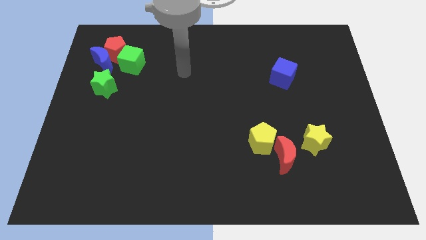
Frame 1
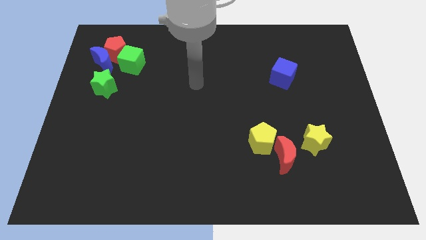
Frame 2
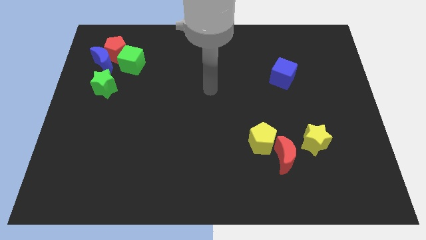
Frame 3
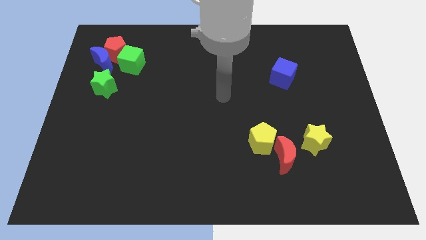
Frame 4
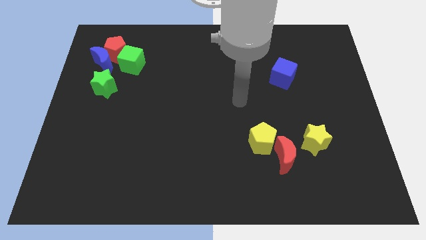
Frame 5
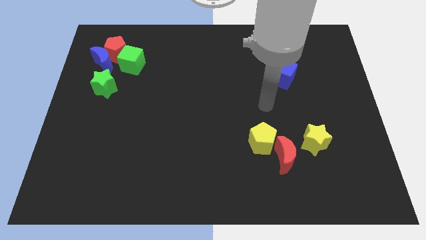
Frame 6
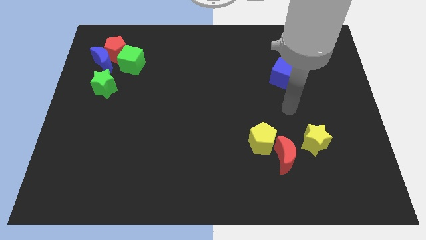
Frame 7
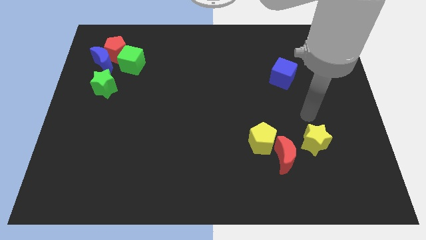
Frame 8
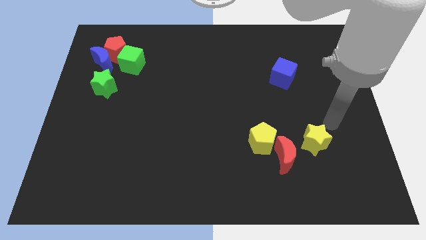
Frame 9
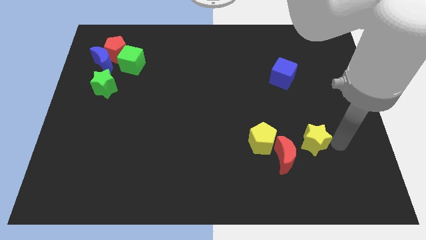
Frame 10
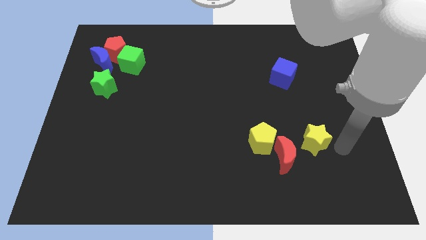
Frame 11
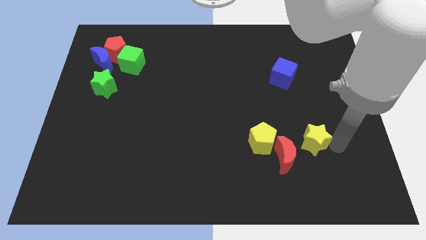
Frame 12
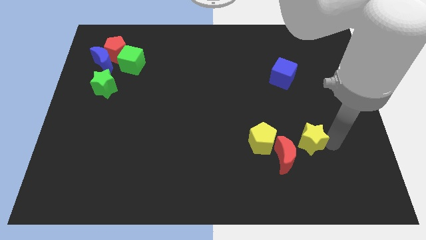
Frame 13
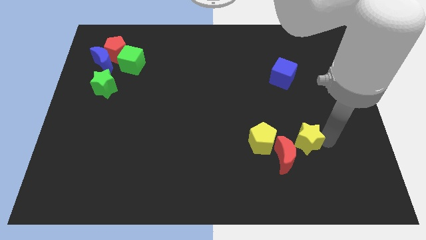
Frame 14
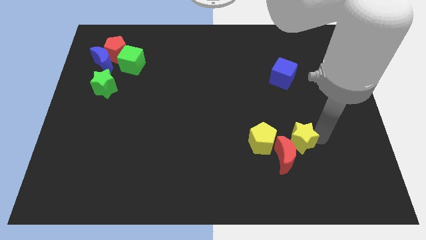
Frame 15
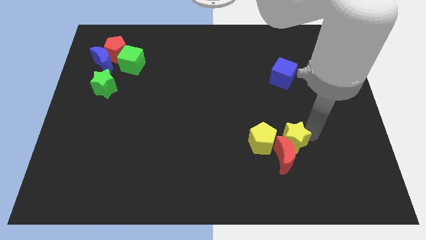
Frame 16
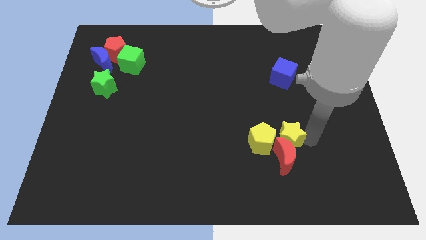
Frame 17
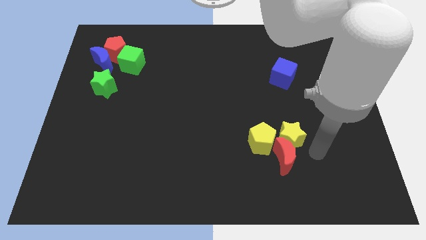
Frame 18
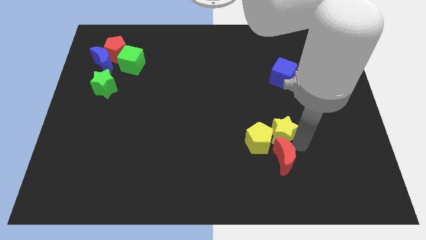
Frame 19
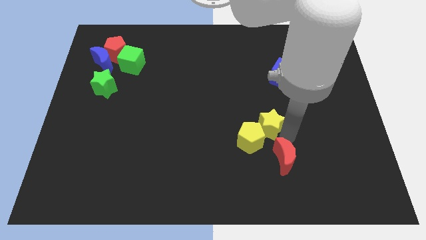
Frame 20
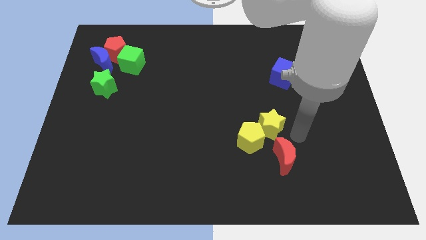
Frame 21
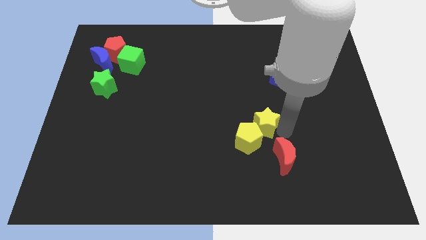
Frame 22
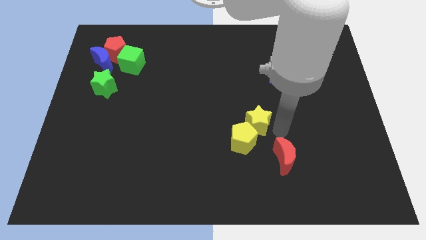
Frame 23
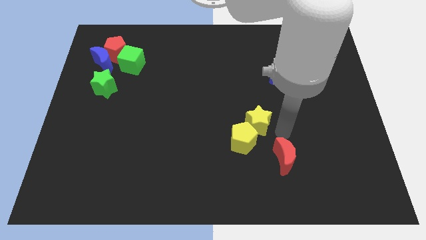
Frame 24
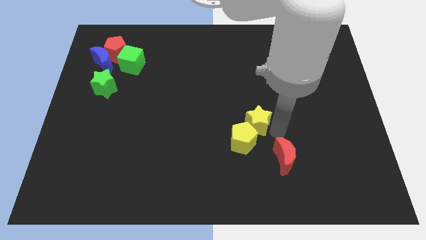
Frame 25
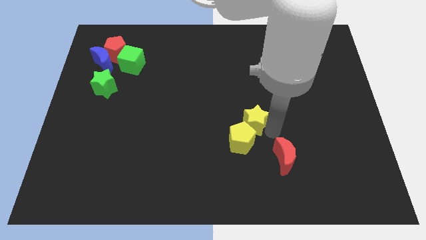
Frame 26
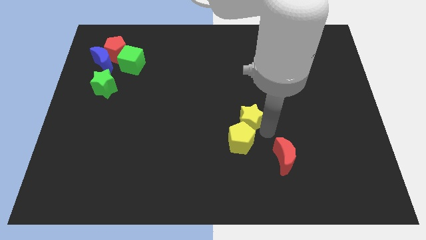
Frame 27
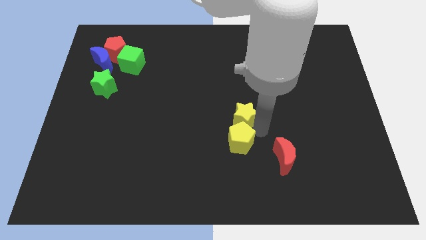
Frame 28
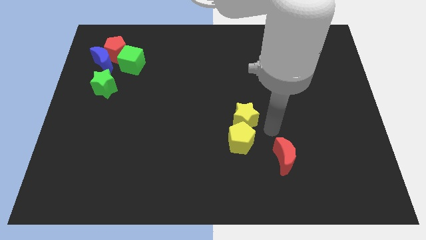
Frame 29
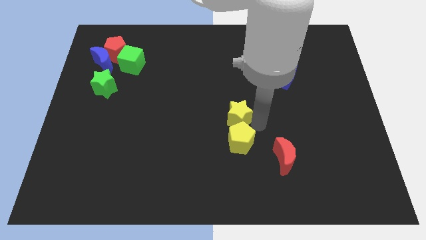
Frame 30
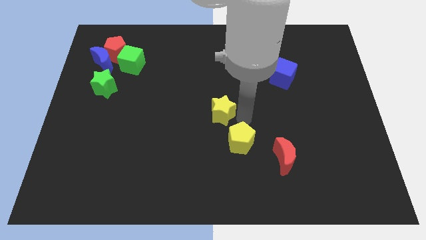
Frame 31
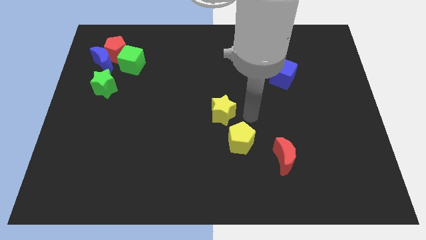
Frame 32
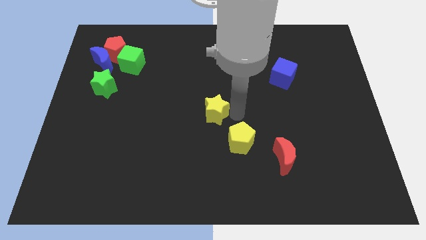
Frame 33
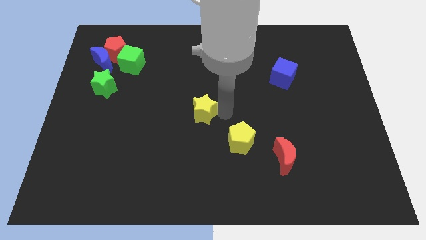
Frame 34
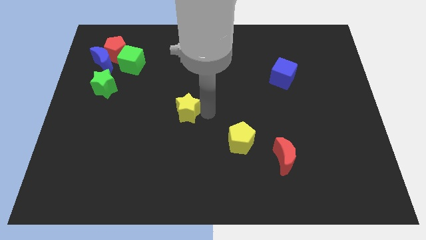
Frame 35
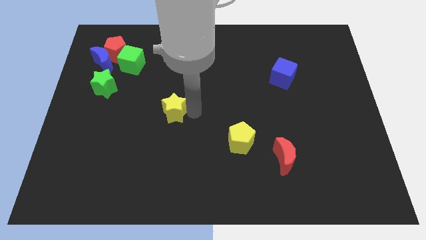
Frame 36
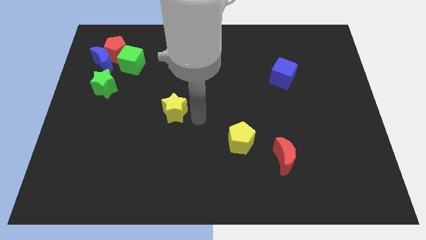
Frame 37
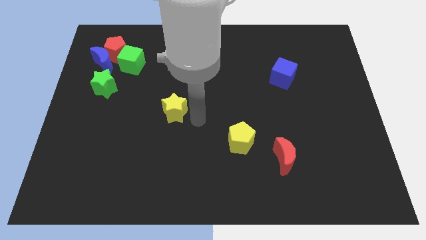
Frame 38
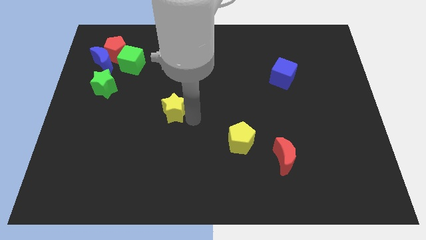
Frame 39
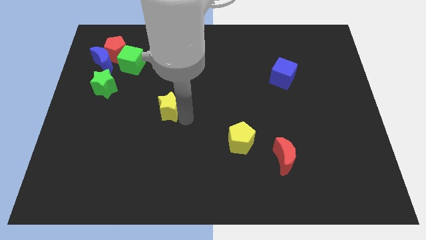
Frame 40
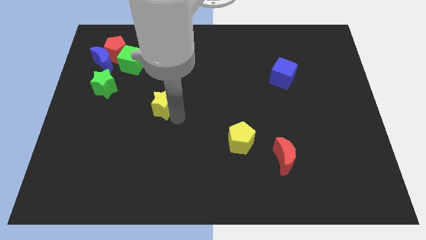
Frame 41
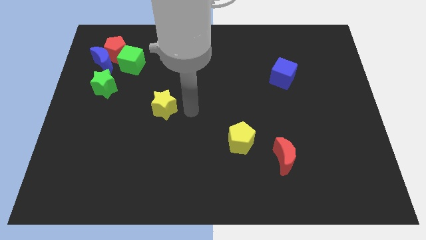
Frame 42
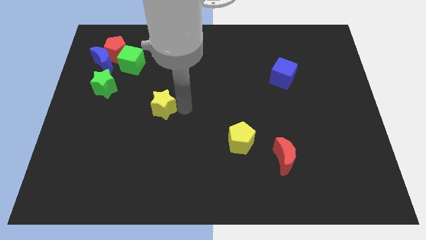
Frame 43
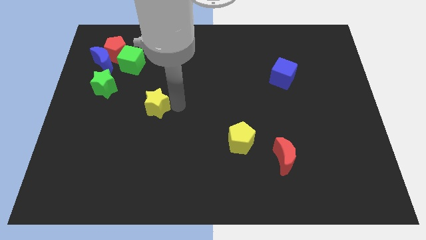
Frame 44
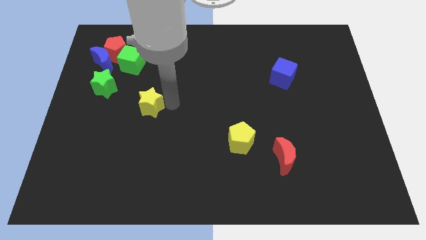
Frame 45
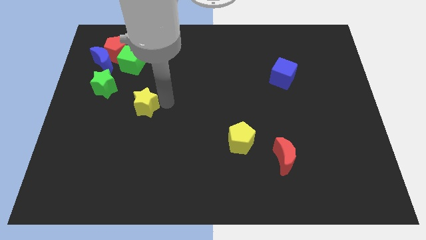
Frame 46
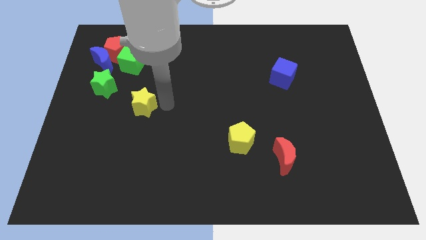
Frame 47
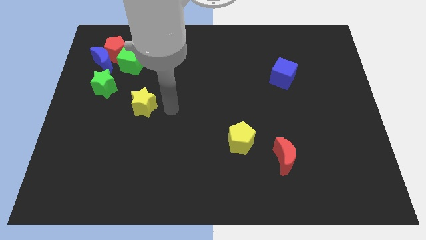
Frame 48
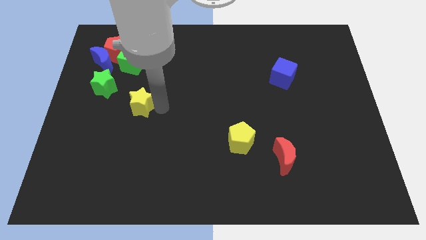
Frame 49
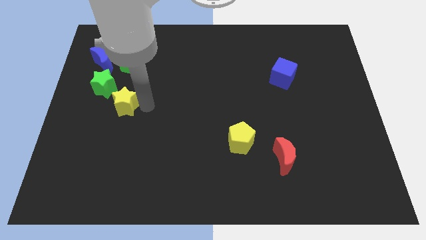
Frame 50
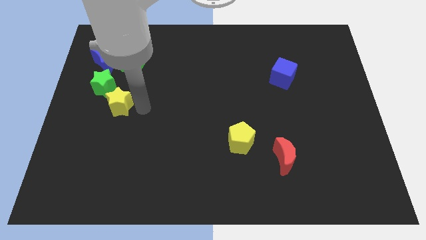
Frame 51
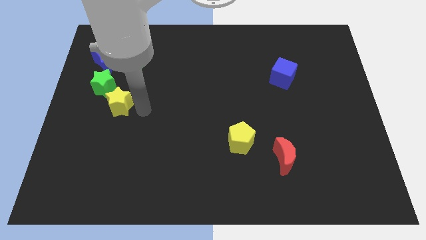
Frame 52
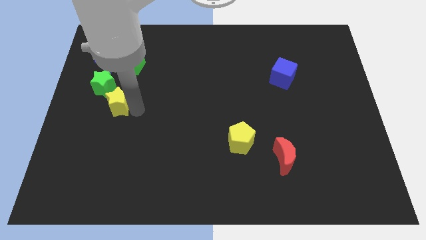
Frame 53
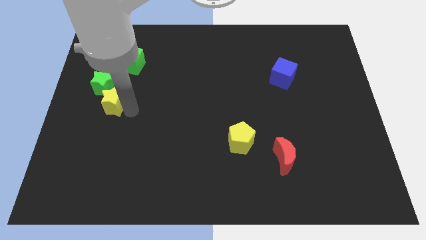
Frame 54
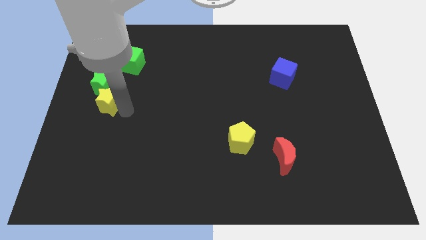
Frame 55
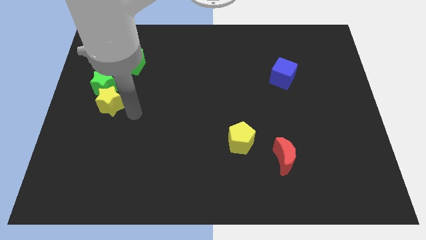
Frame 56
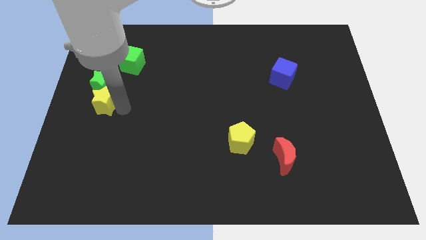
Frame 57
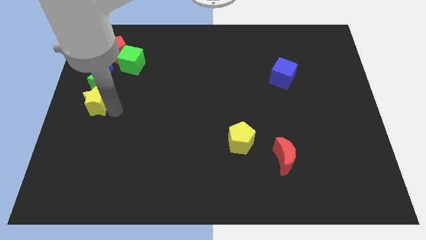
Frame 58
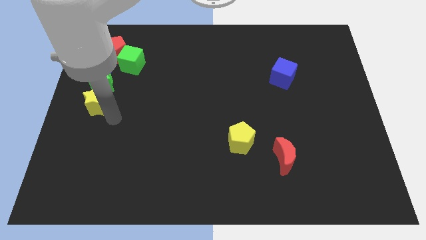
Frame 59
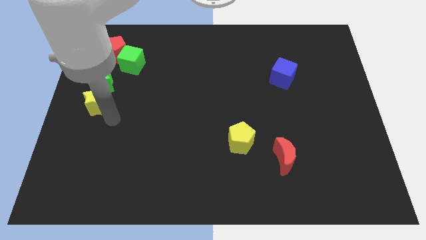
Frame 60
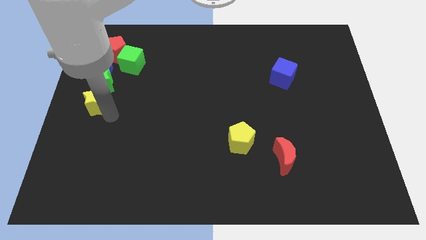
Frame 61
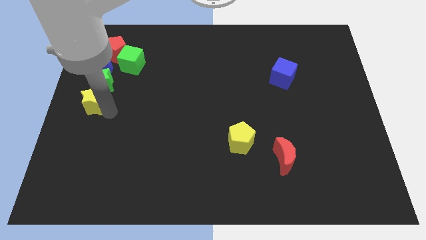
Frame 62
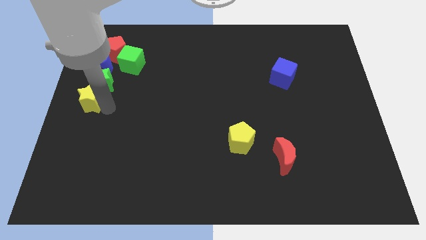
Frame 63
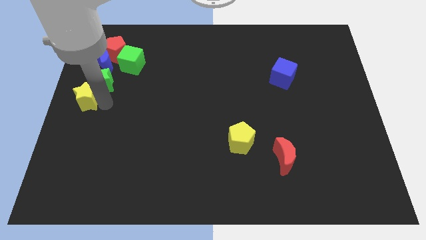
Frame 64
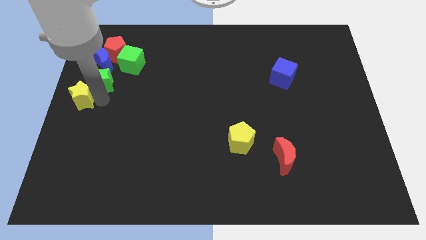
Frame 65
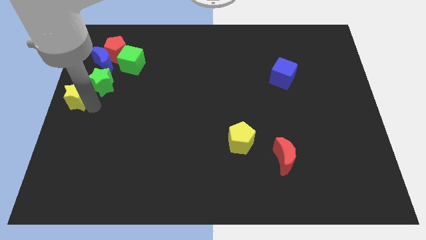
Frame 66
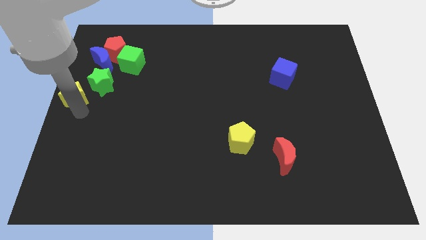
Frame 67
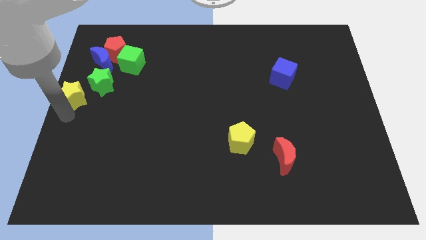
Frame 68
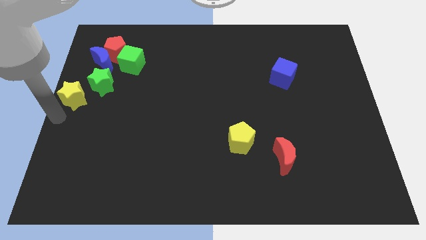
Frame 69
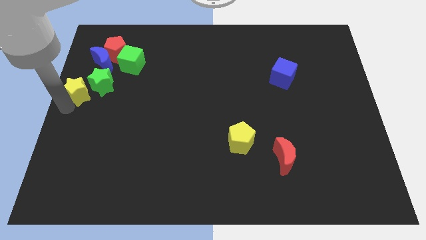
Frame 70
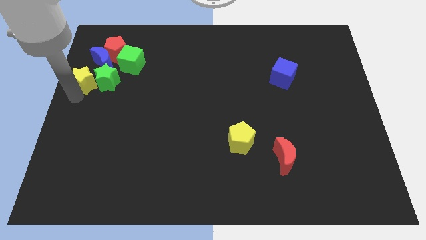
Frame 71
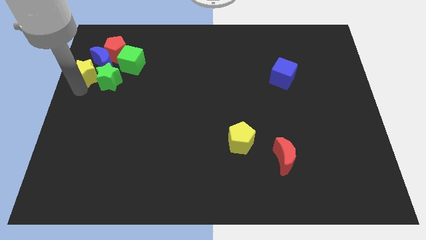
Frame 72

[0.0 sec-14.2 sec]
move the yellow star close to the blue moon

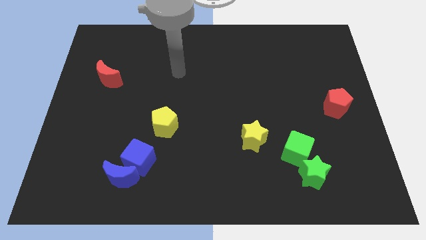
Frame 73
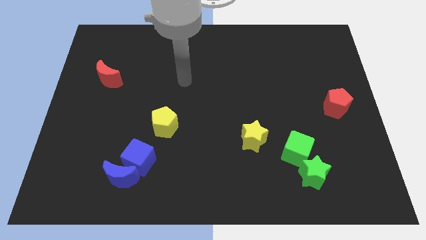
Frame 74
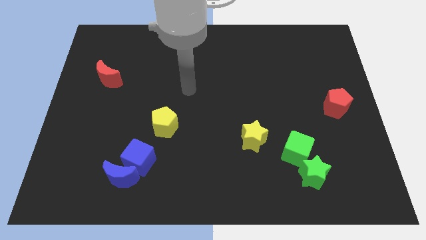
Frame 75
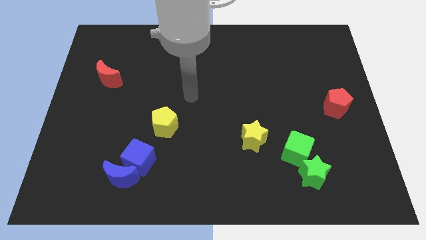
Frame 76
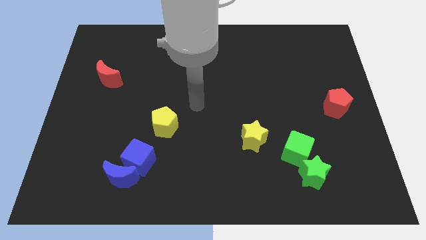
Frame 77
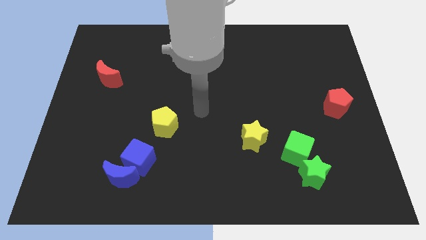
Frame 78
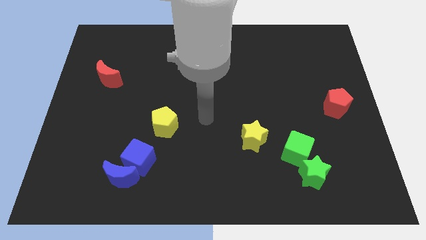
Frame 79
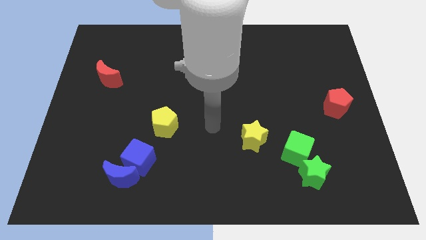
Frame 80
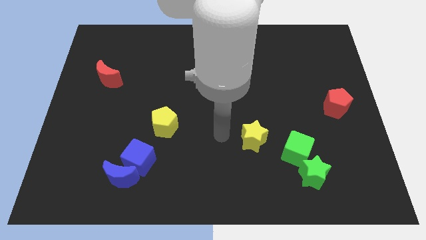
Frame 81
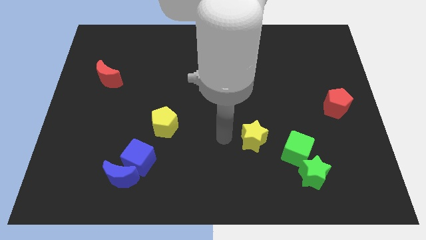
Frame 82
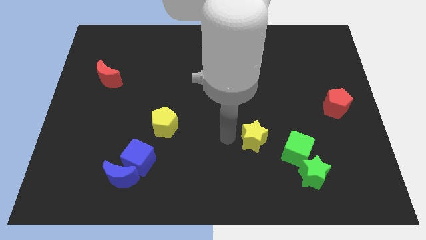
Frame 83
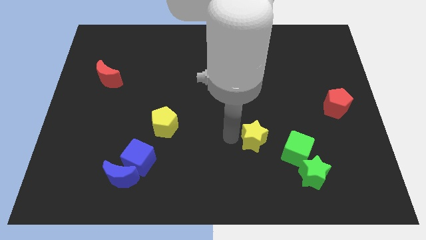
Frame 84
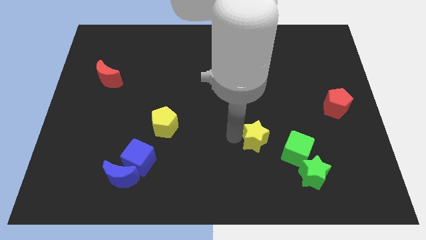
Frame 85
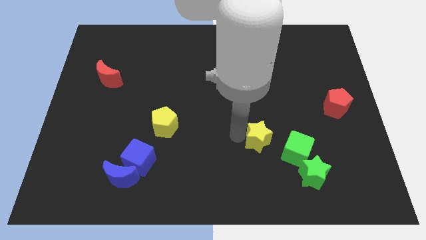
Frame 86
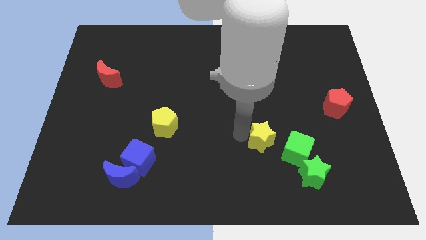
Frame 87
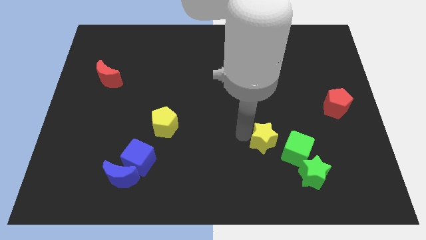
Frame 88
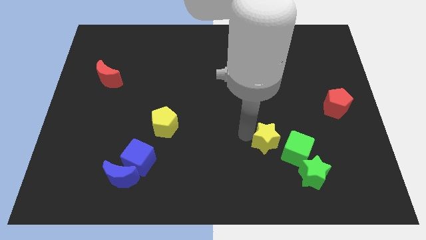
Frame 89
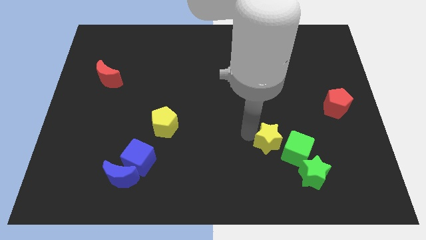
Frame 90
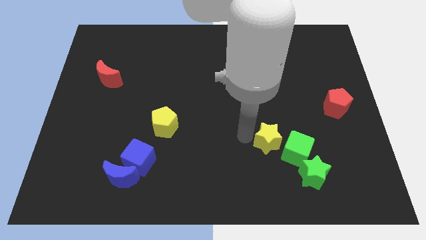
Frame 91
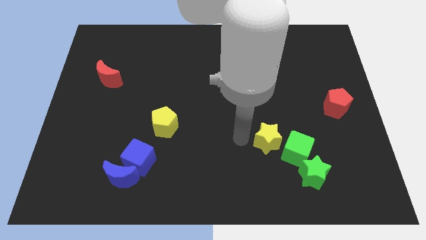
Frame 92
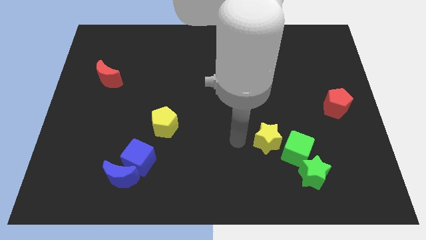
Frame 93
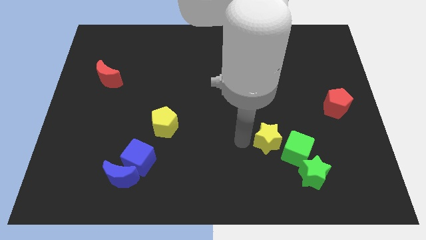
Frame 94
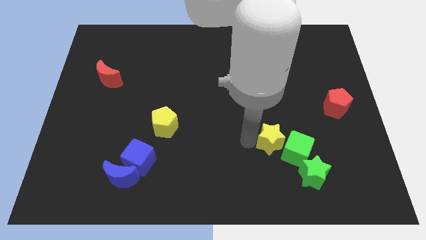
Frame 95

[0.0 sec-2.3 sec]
move the yellow star next to the green cube
